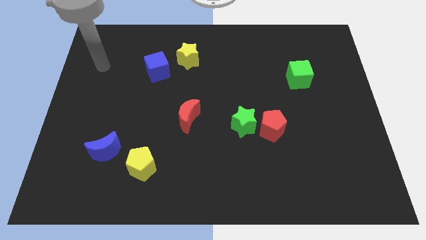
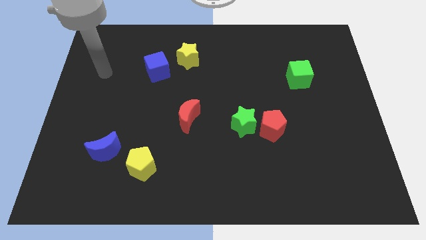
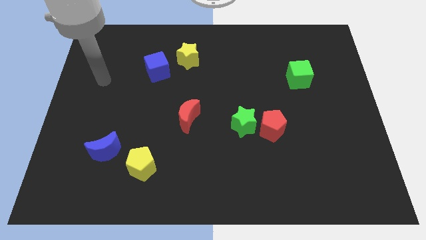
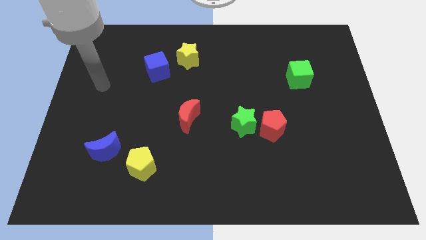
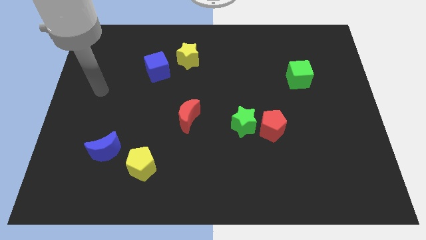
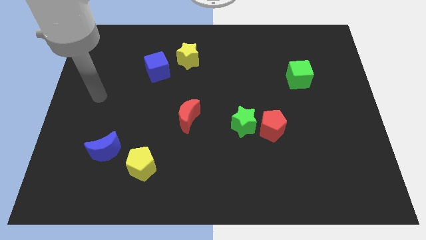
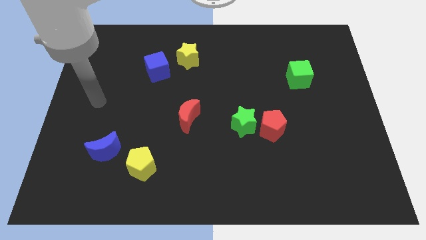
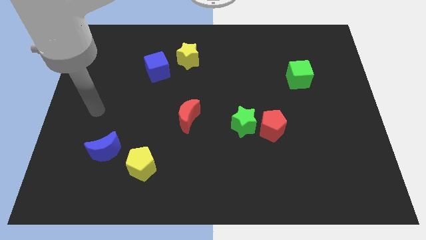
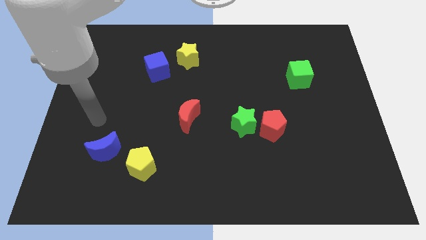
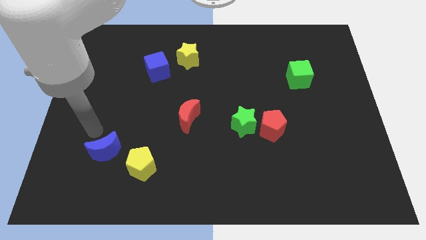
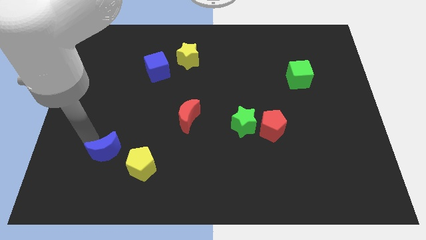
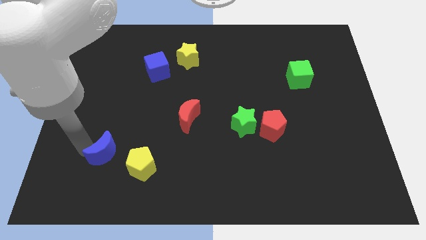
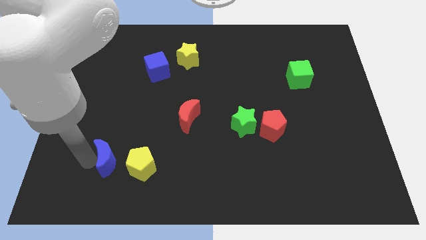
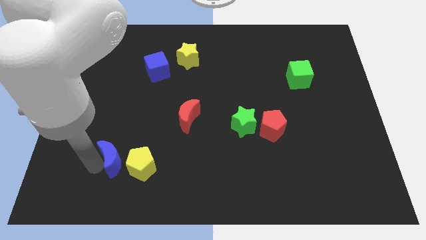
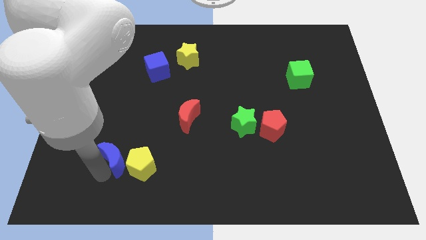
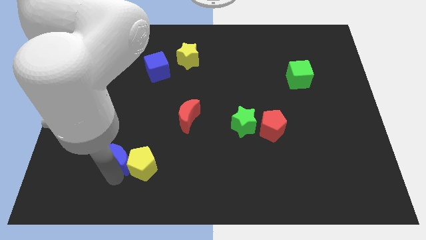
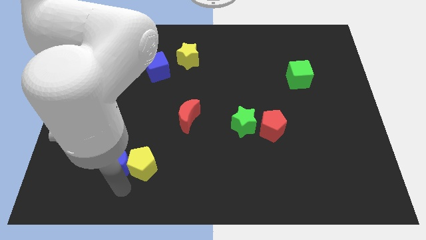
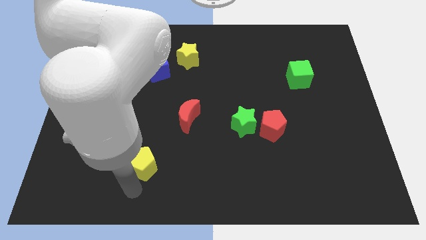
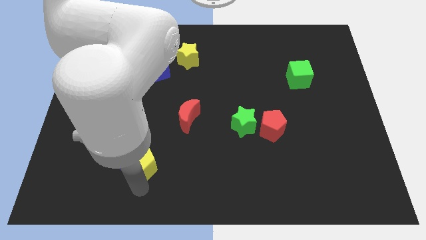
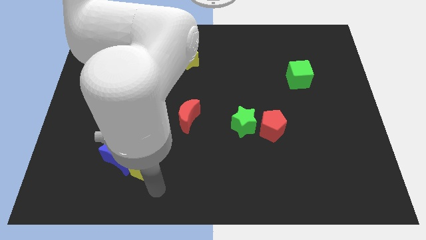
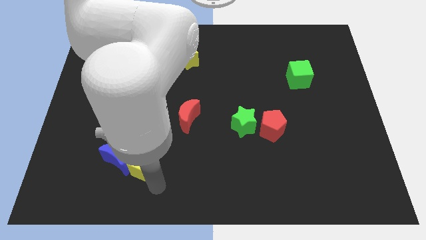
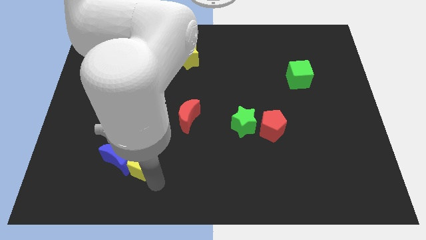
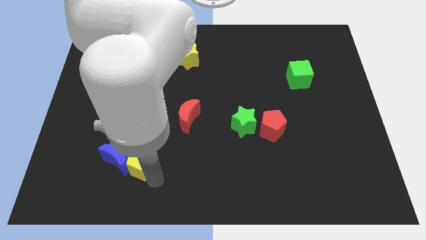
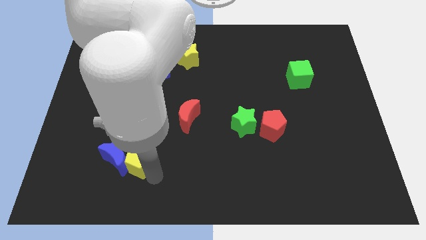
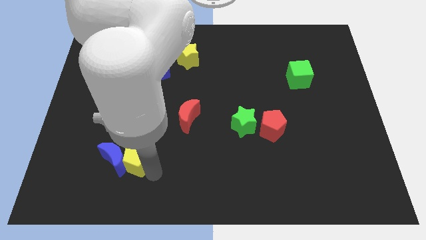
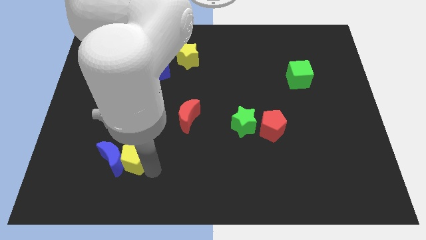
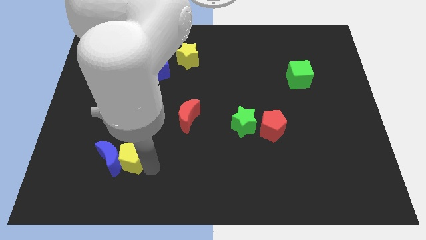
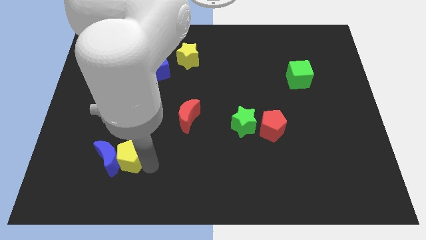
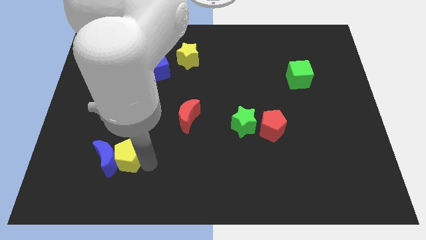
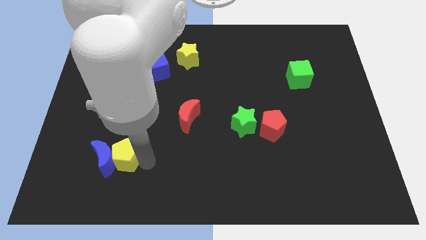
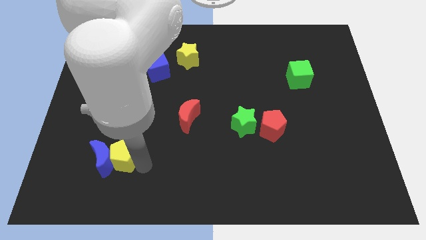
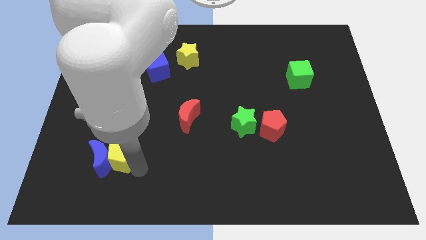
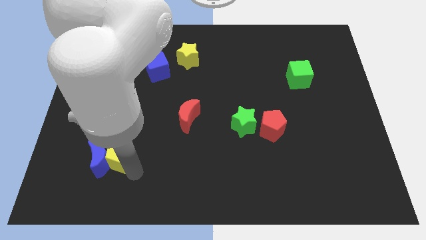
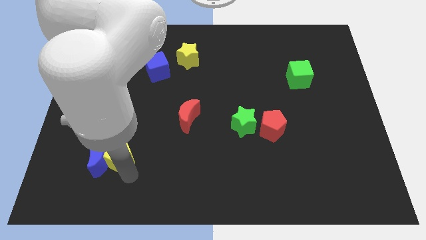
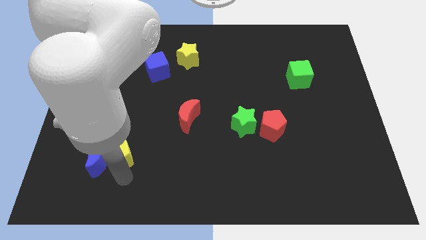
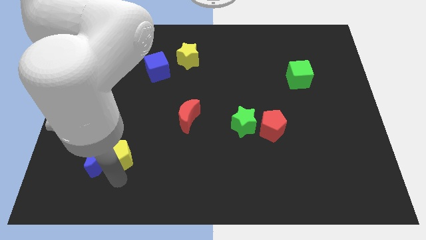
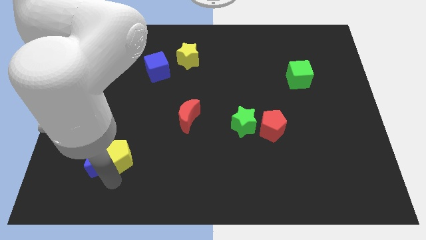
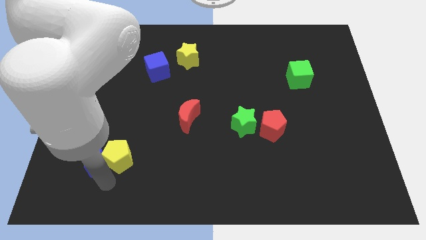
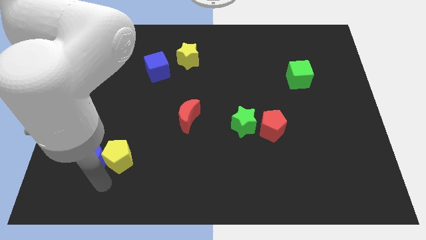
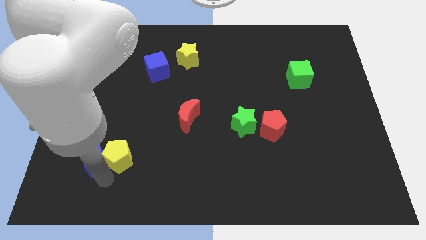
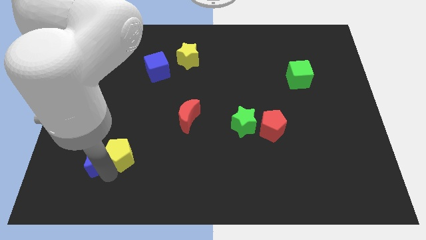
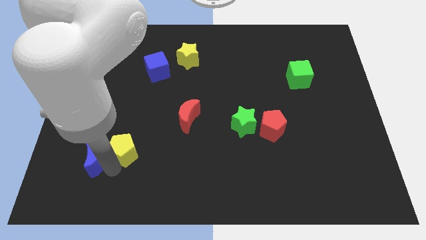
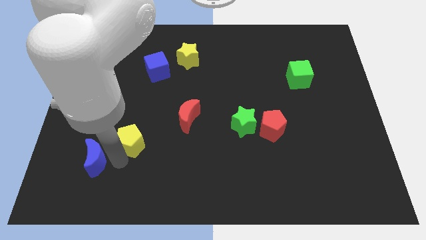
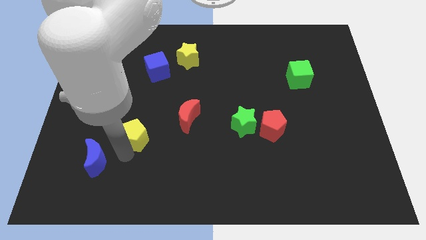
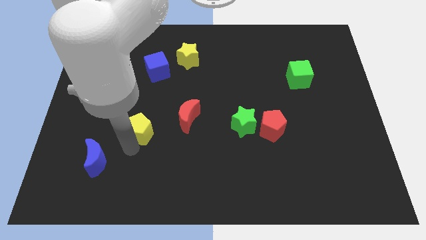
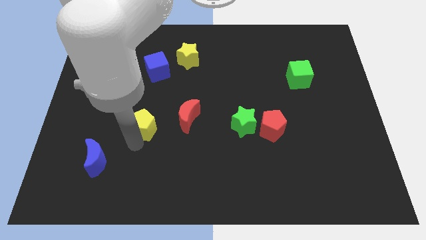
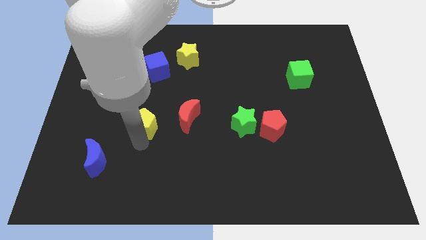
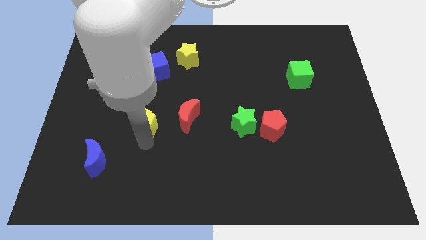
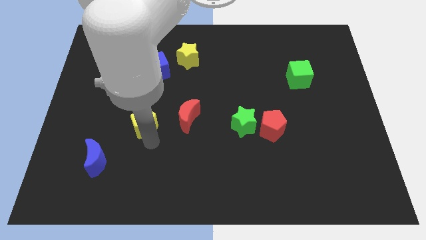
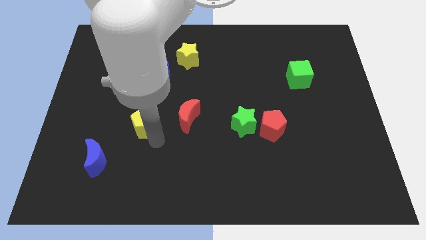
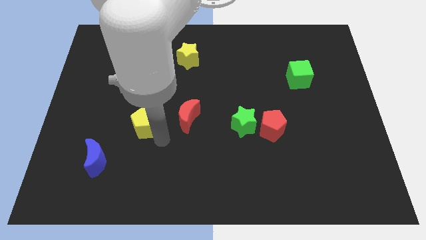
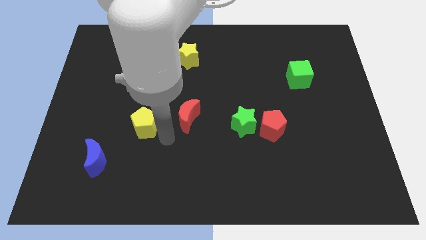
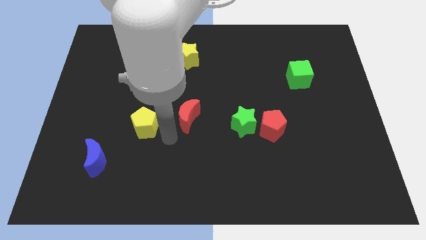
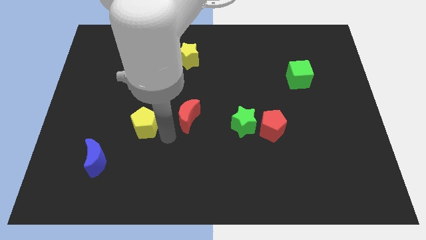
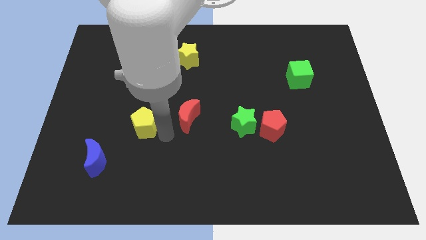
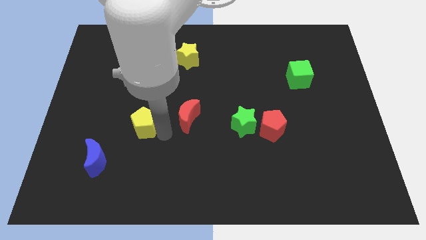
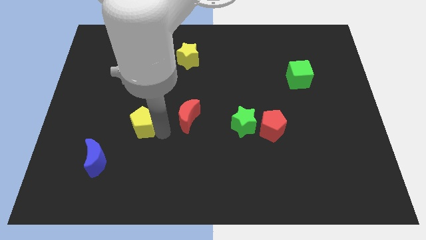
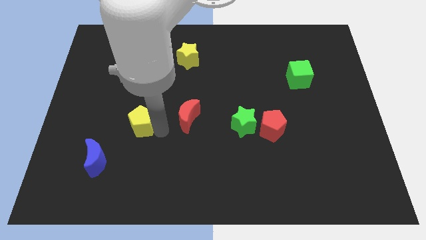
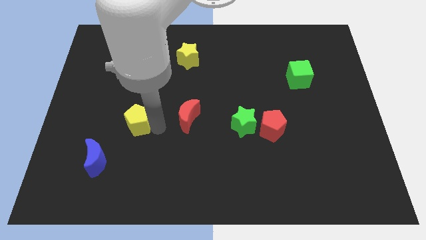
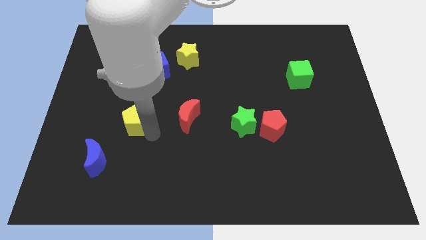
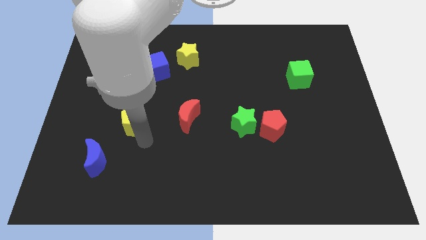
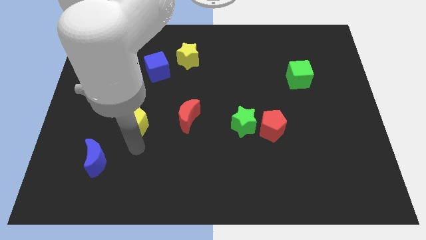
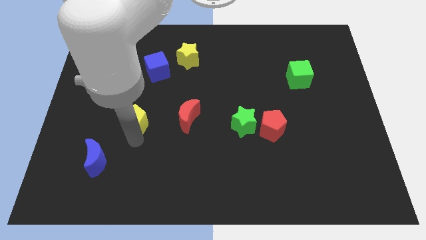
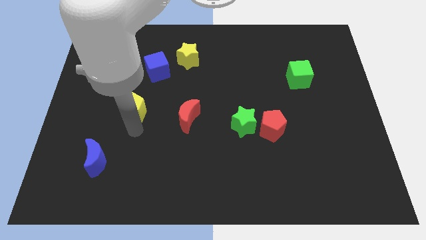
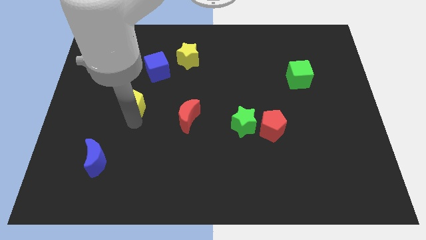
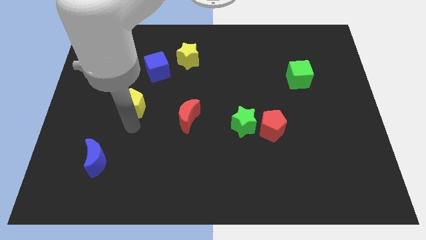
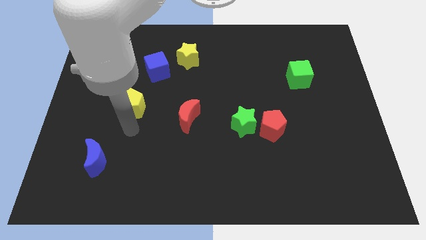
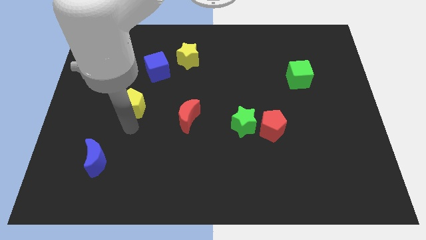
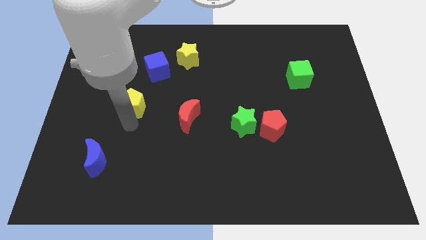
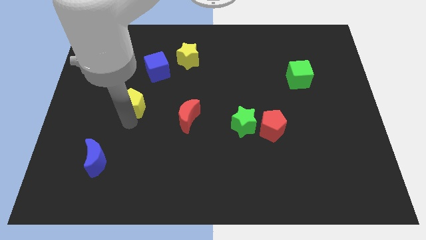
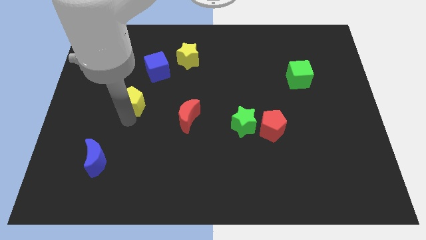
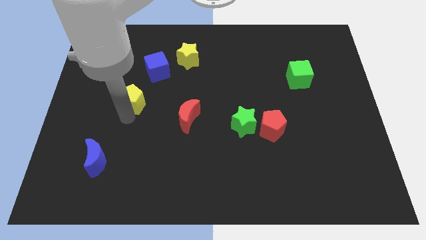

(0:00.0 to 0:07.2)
push the yellow pentagon diagonally down and to the left of the blue cube
